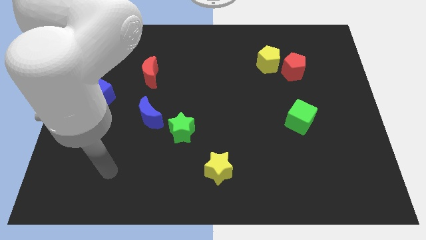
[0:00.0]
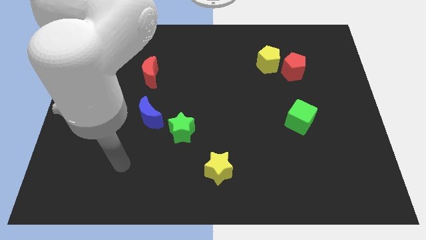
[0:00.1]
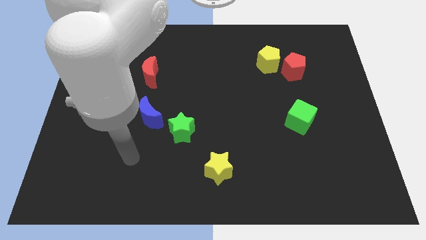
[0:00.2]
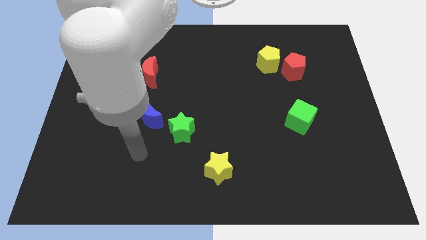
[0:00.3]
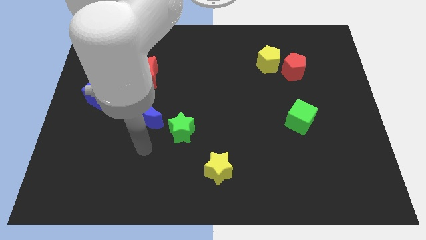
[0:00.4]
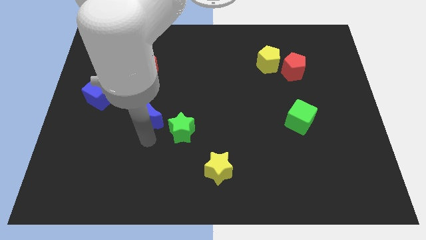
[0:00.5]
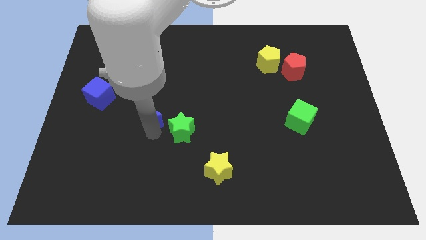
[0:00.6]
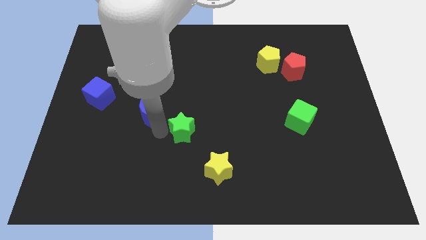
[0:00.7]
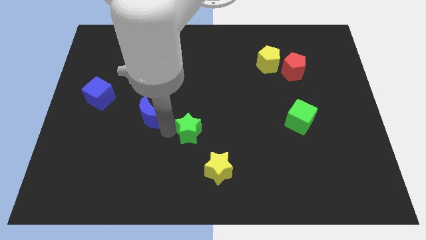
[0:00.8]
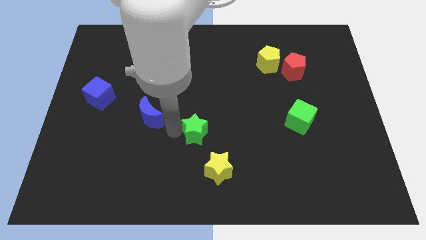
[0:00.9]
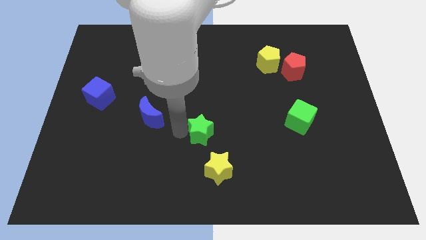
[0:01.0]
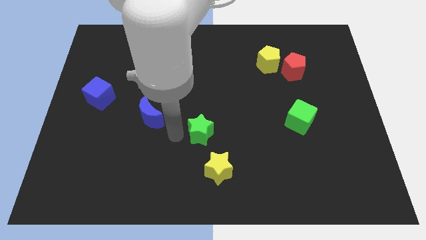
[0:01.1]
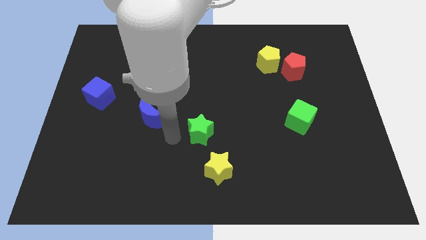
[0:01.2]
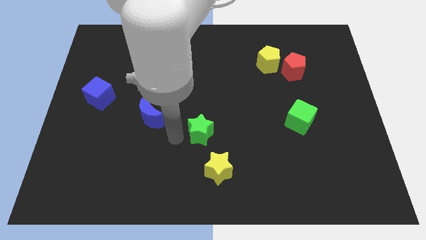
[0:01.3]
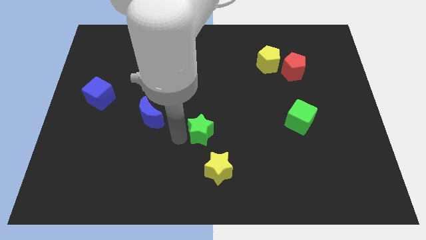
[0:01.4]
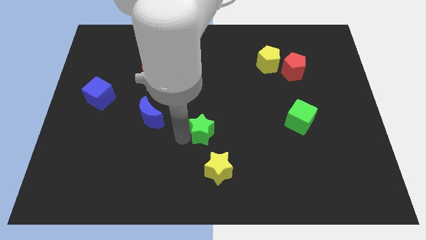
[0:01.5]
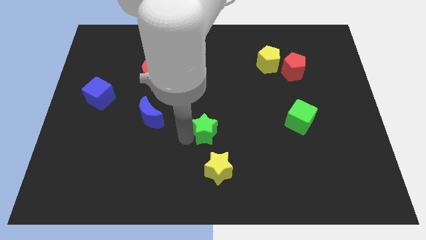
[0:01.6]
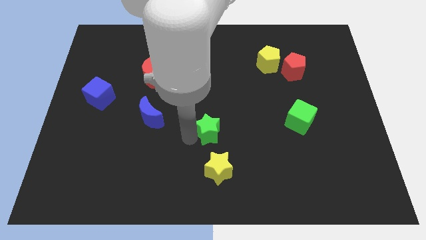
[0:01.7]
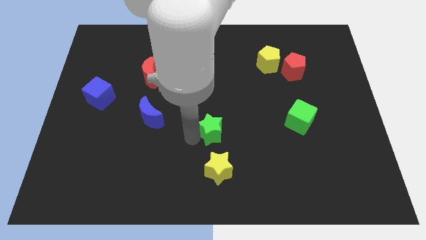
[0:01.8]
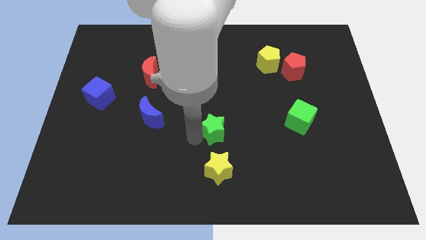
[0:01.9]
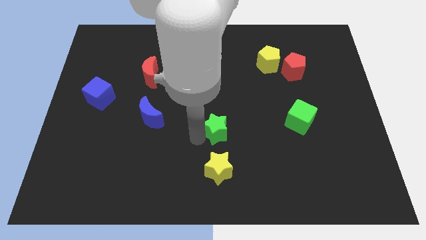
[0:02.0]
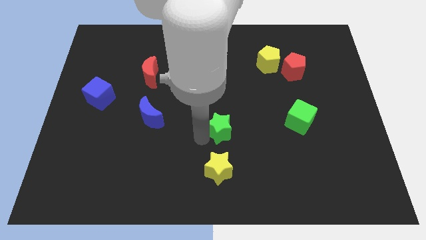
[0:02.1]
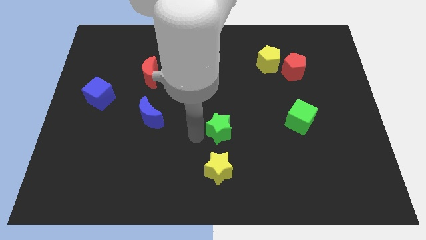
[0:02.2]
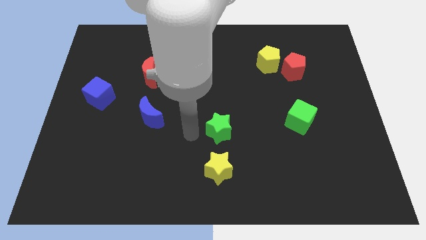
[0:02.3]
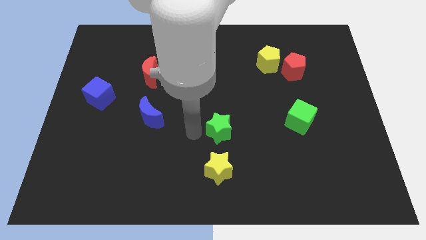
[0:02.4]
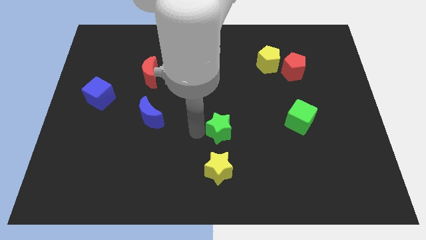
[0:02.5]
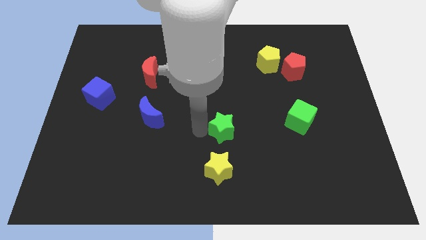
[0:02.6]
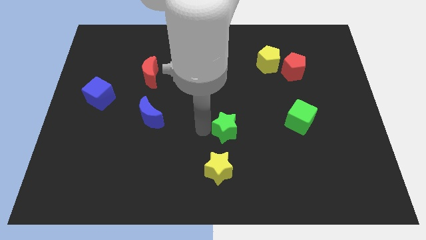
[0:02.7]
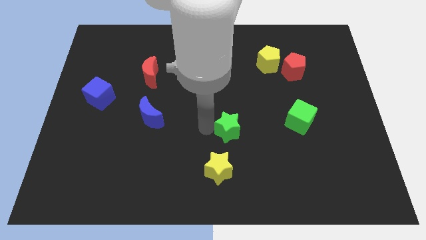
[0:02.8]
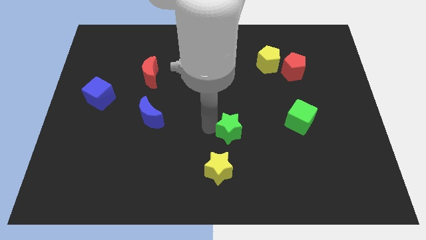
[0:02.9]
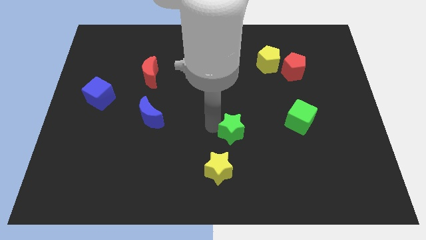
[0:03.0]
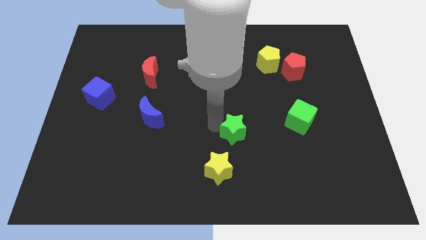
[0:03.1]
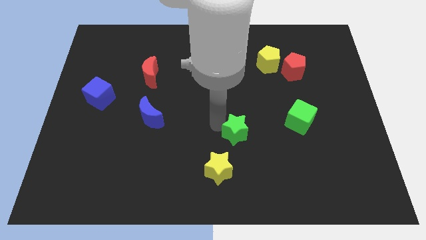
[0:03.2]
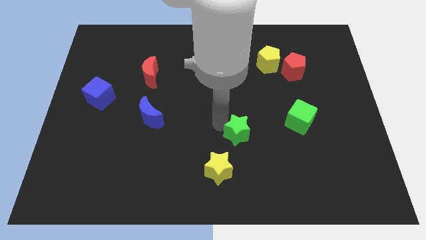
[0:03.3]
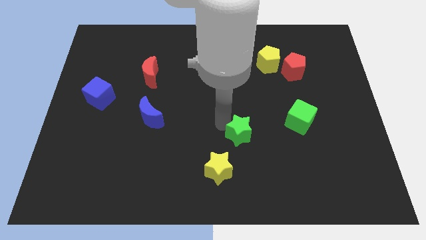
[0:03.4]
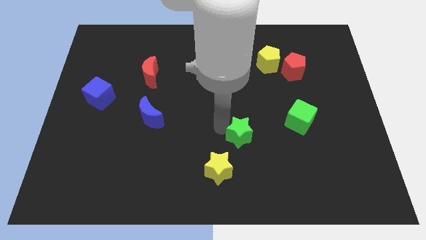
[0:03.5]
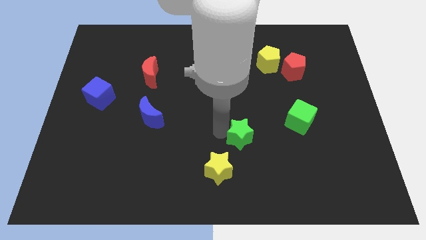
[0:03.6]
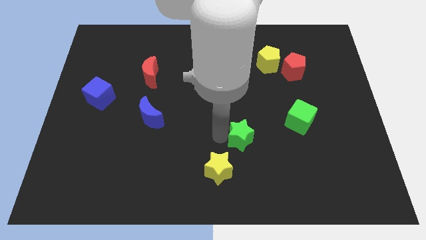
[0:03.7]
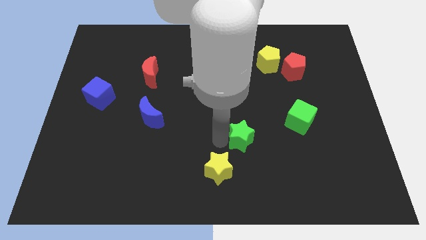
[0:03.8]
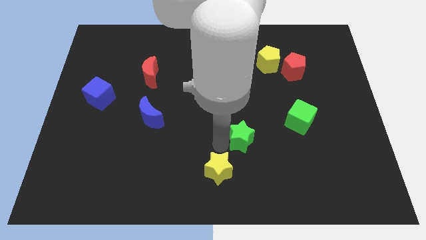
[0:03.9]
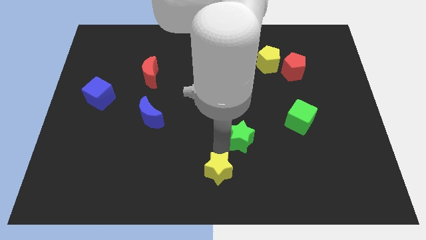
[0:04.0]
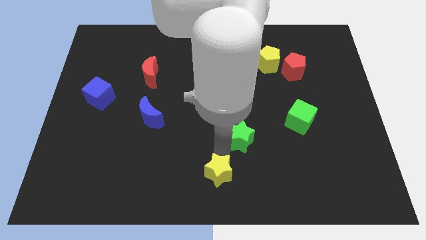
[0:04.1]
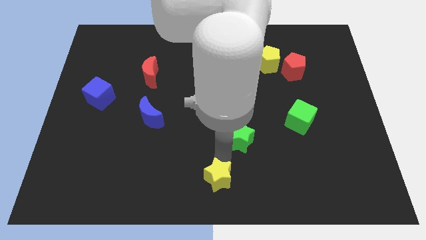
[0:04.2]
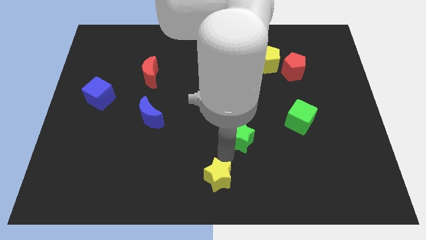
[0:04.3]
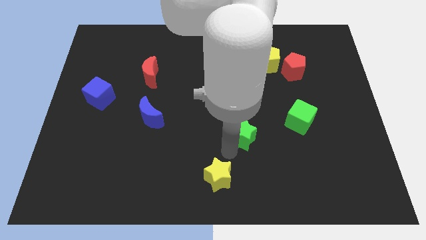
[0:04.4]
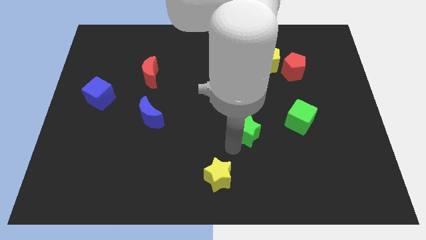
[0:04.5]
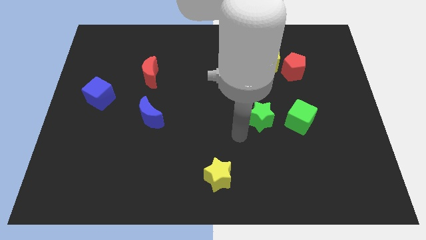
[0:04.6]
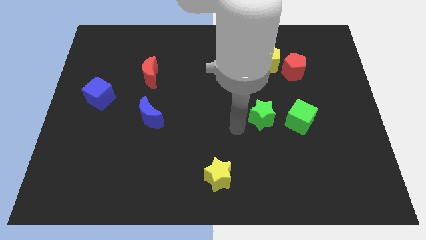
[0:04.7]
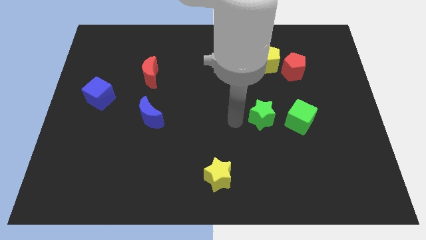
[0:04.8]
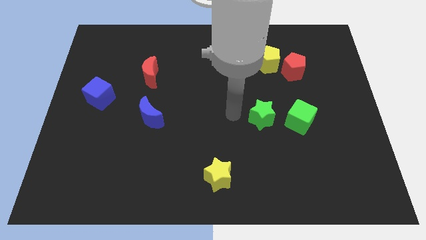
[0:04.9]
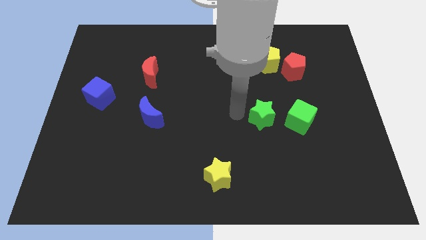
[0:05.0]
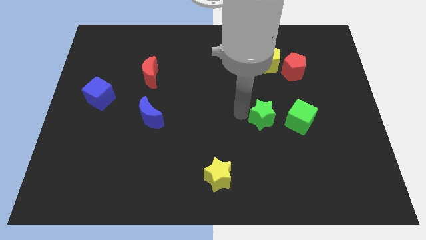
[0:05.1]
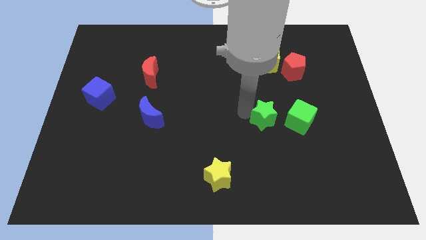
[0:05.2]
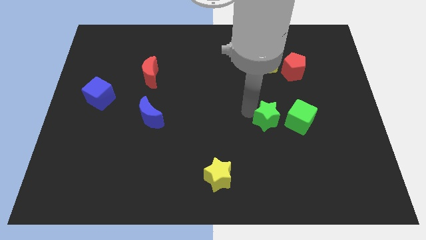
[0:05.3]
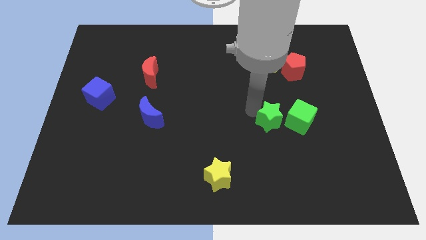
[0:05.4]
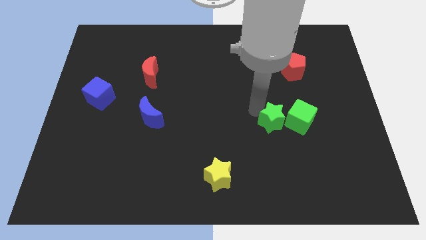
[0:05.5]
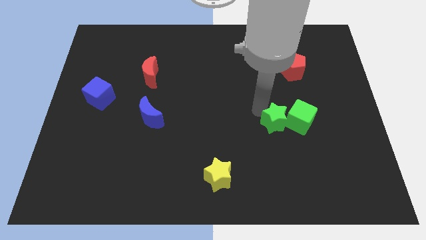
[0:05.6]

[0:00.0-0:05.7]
push the green star towards the green cube

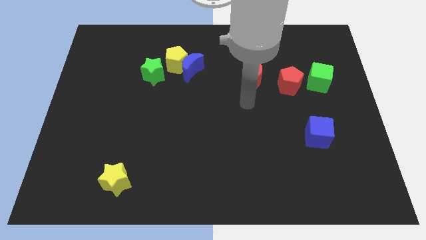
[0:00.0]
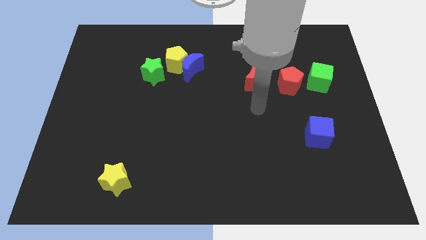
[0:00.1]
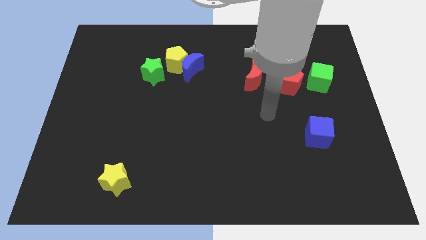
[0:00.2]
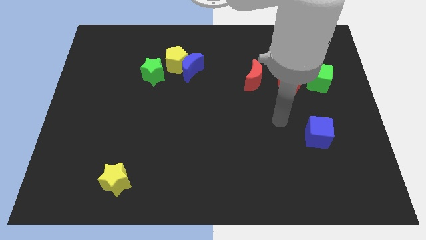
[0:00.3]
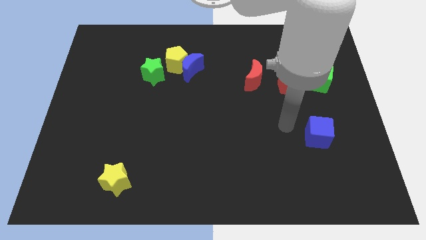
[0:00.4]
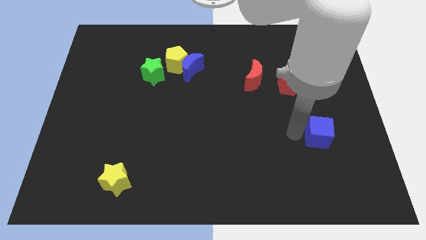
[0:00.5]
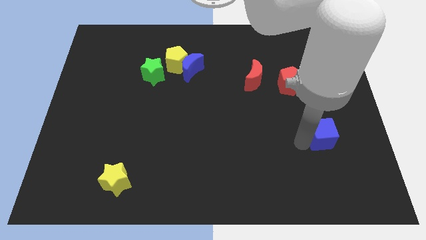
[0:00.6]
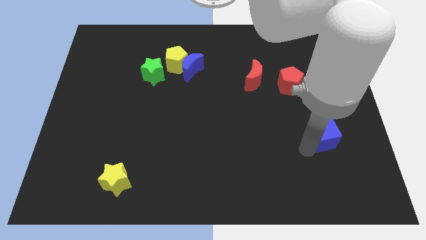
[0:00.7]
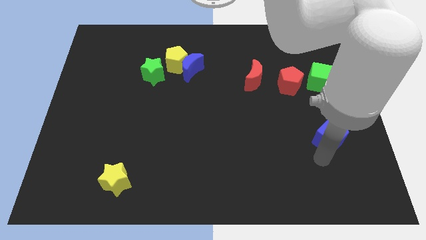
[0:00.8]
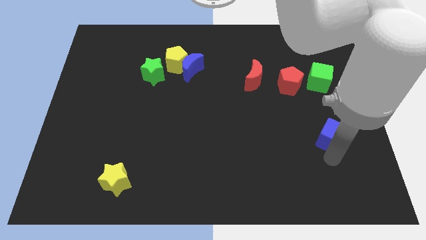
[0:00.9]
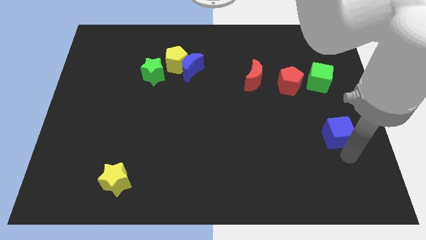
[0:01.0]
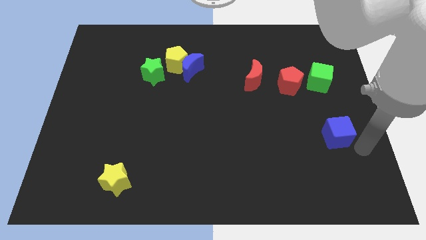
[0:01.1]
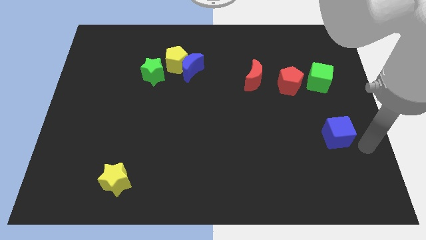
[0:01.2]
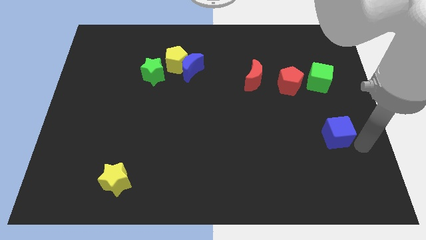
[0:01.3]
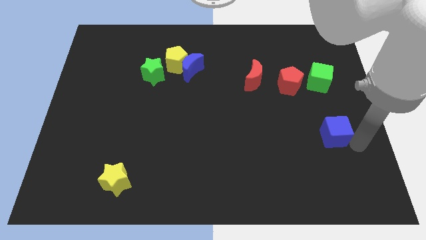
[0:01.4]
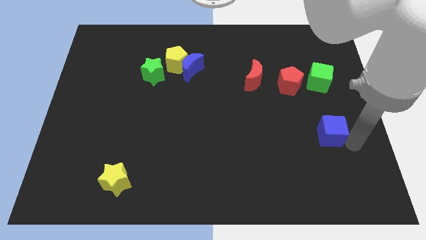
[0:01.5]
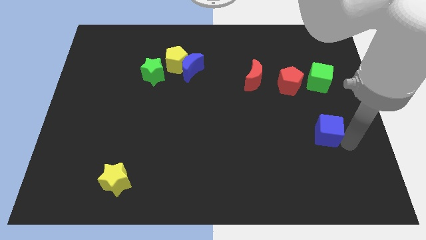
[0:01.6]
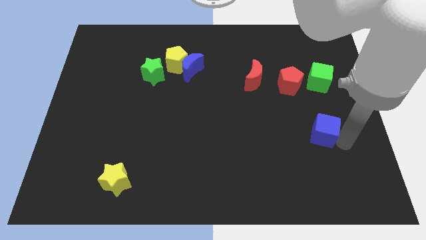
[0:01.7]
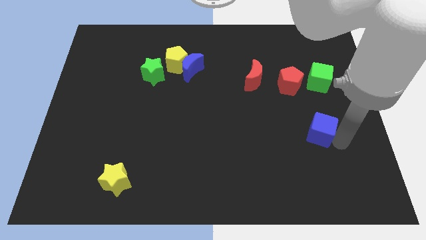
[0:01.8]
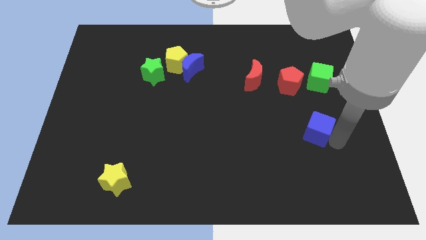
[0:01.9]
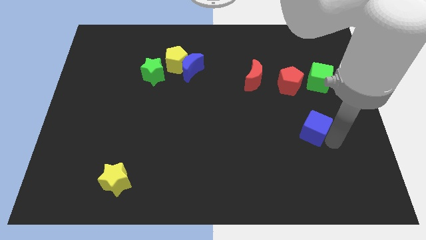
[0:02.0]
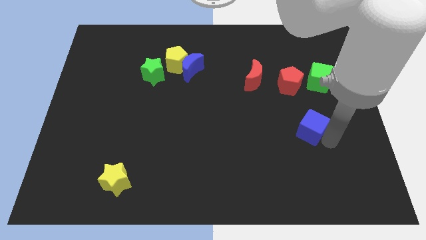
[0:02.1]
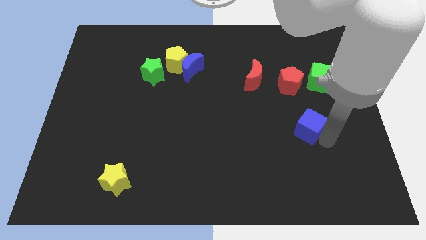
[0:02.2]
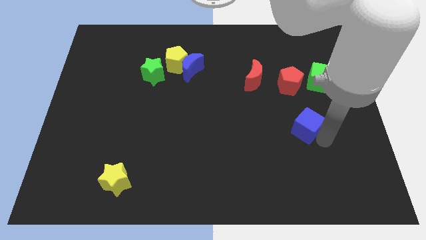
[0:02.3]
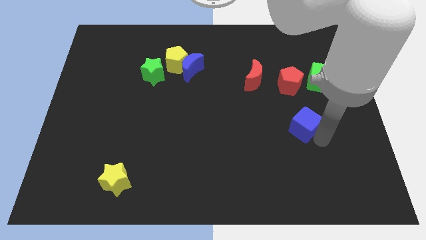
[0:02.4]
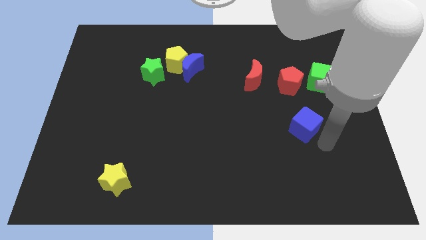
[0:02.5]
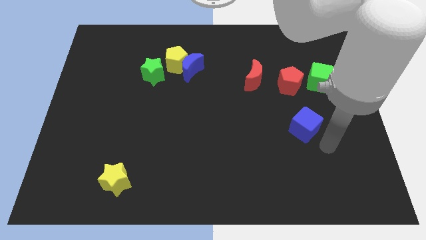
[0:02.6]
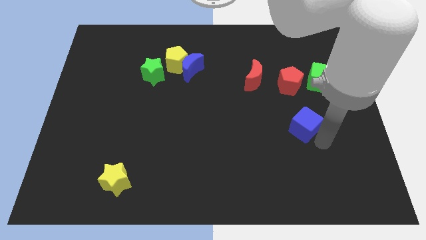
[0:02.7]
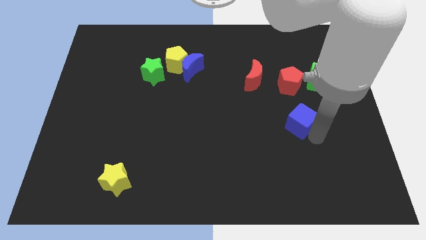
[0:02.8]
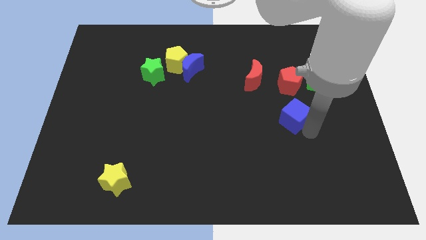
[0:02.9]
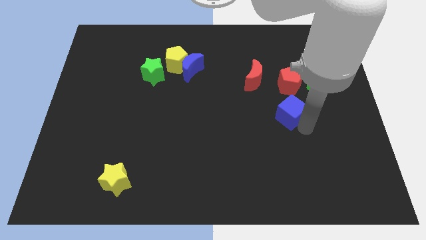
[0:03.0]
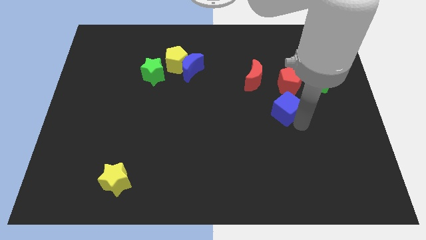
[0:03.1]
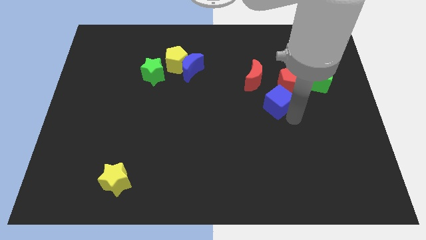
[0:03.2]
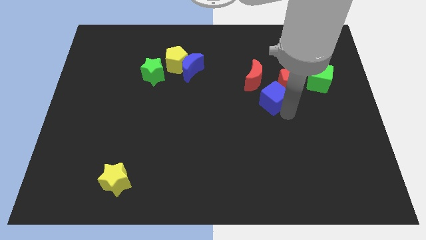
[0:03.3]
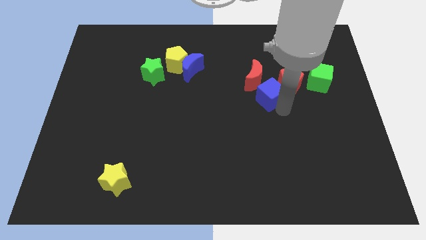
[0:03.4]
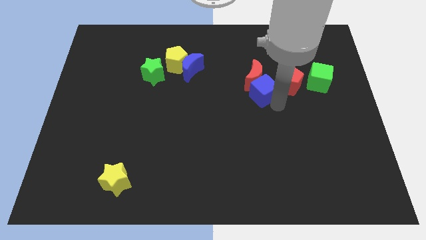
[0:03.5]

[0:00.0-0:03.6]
push the blue cube towards the red moon
